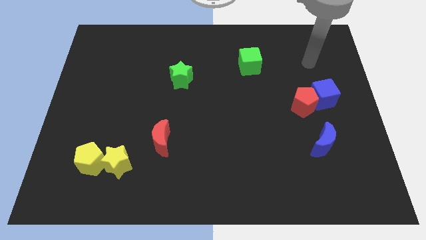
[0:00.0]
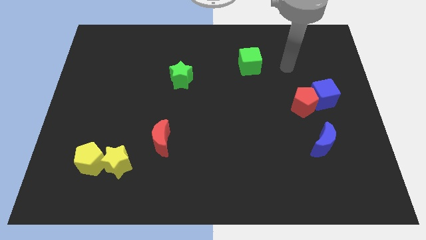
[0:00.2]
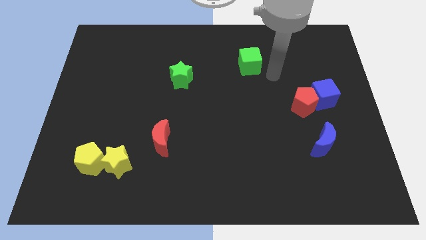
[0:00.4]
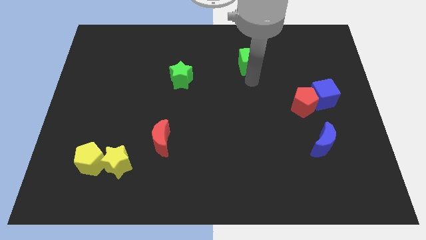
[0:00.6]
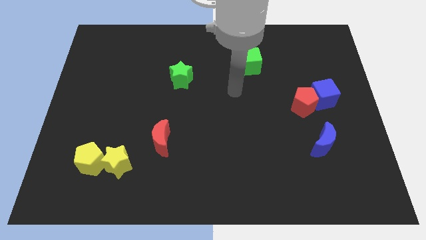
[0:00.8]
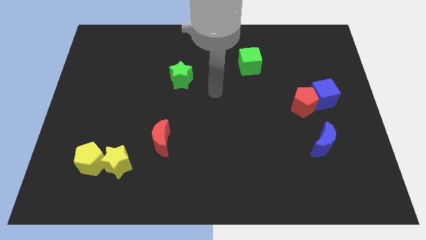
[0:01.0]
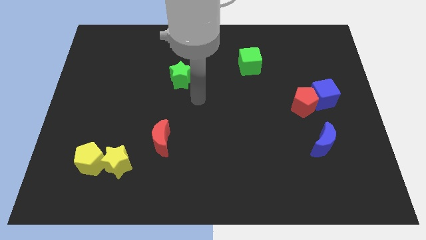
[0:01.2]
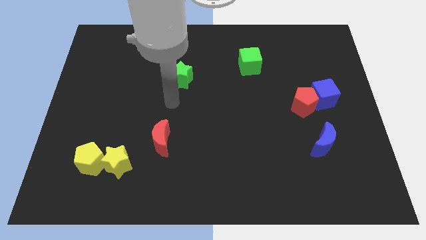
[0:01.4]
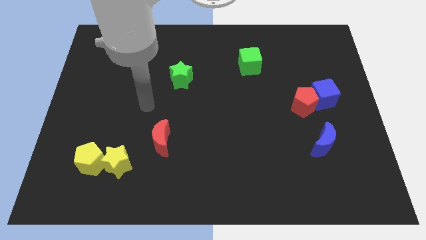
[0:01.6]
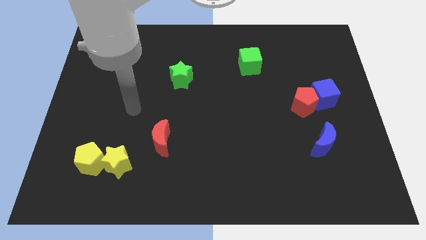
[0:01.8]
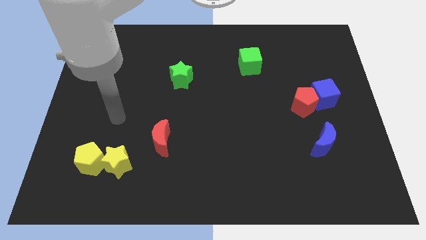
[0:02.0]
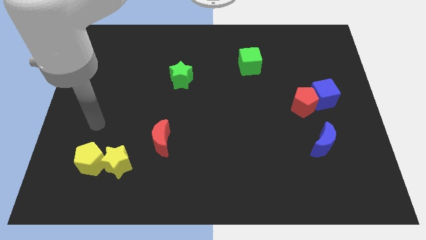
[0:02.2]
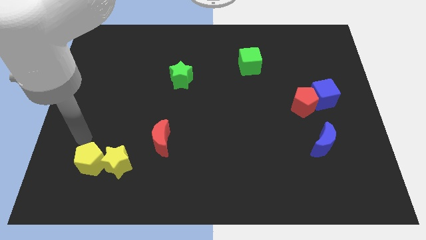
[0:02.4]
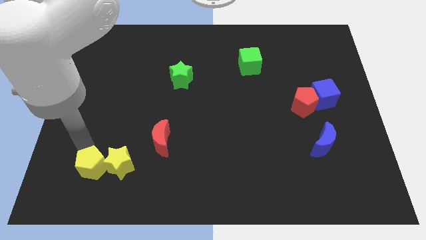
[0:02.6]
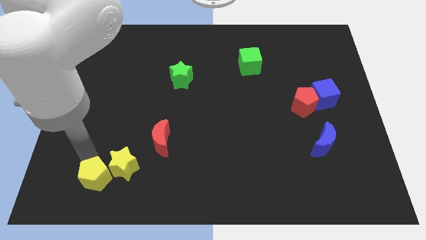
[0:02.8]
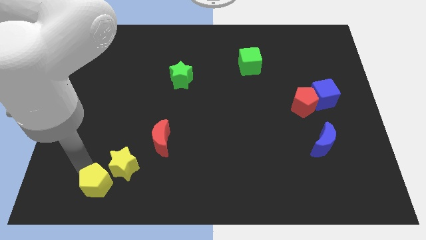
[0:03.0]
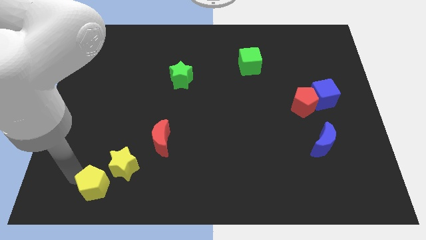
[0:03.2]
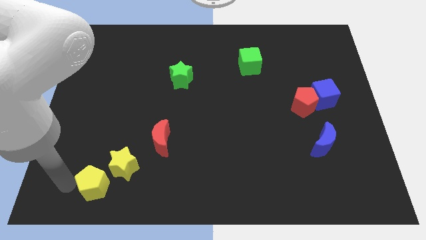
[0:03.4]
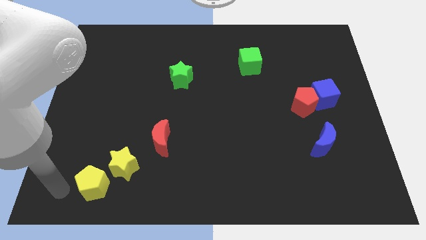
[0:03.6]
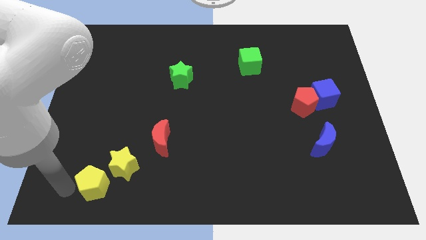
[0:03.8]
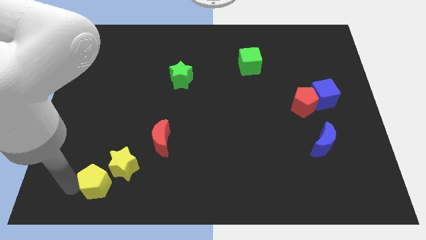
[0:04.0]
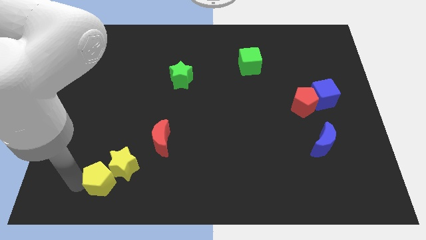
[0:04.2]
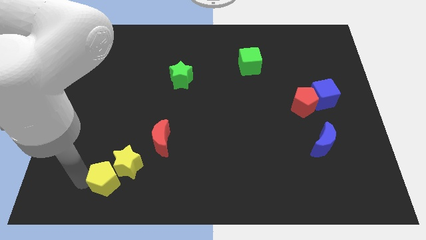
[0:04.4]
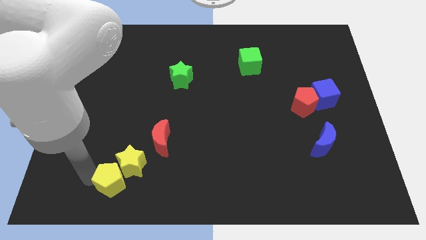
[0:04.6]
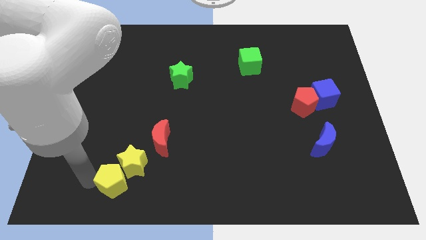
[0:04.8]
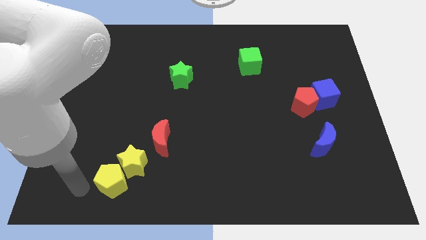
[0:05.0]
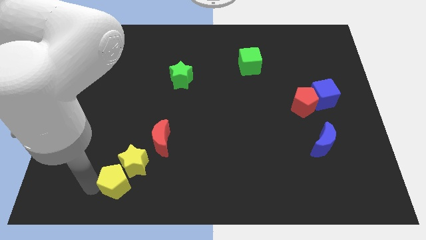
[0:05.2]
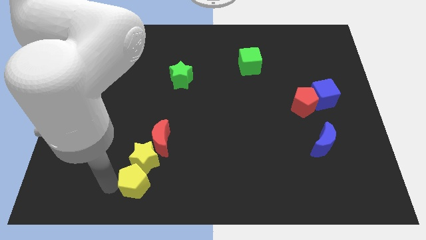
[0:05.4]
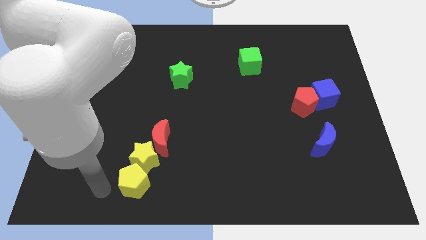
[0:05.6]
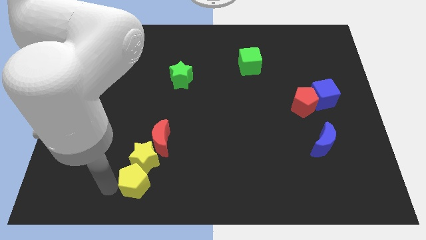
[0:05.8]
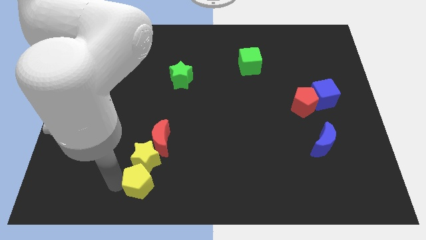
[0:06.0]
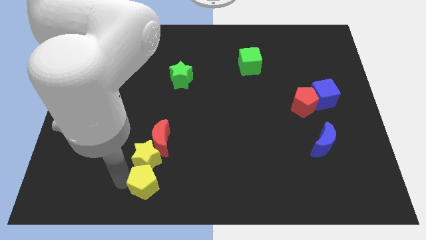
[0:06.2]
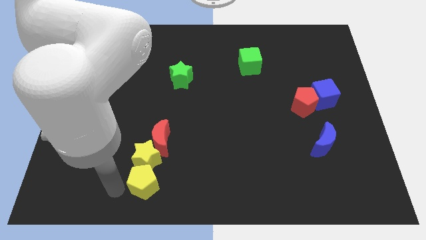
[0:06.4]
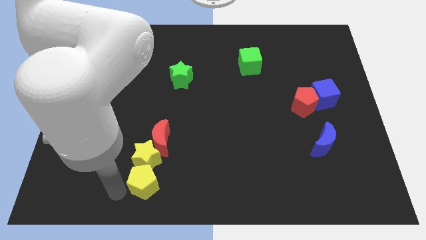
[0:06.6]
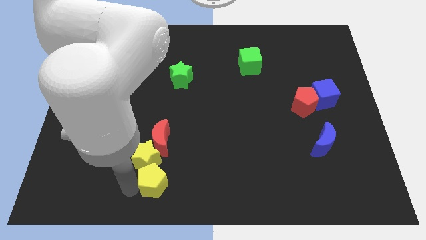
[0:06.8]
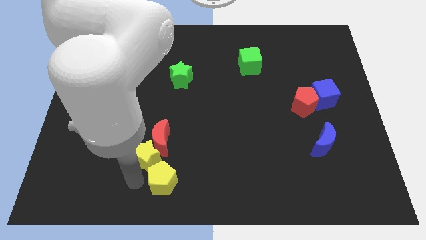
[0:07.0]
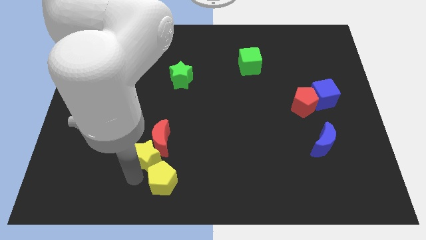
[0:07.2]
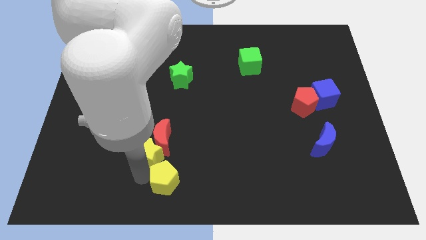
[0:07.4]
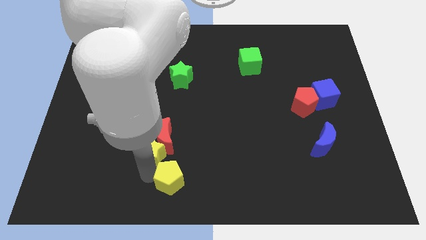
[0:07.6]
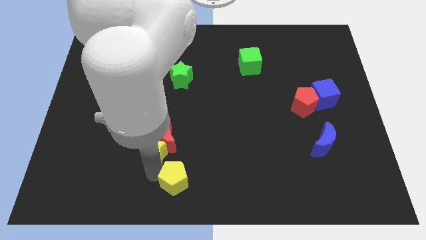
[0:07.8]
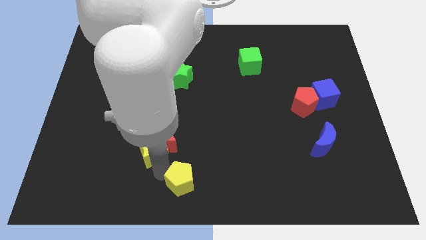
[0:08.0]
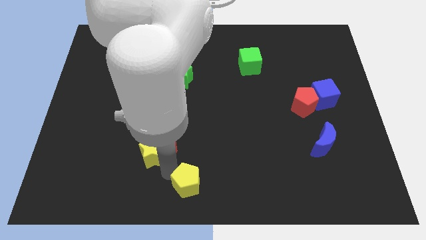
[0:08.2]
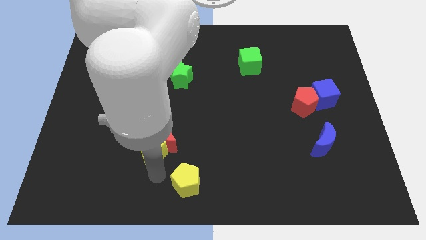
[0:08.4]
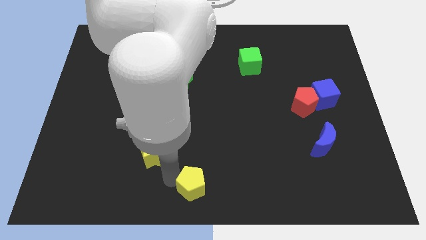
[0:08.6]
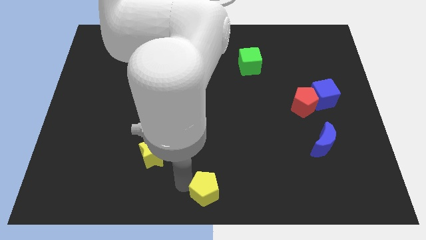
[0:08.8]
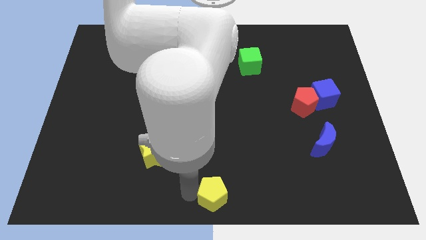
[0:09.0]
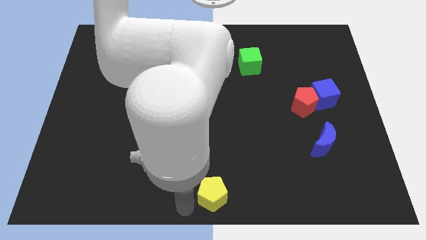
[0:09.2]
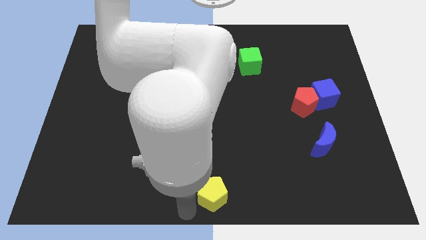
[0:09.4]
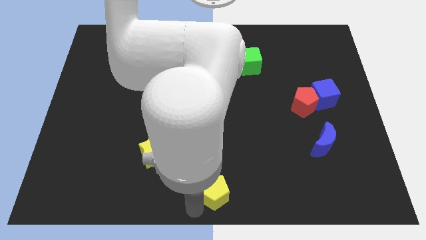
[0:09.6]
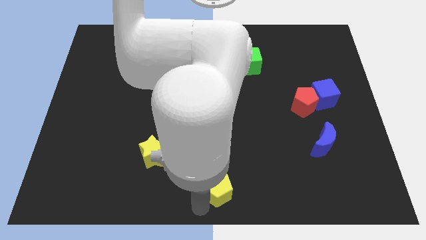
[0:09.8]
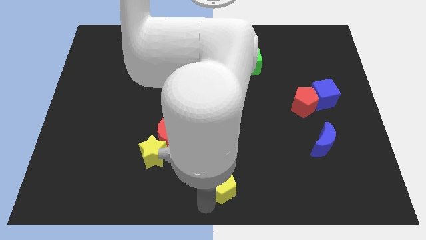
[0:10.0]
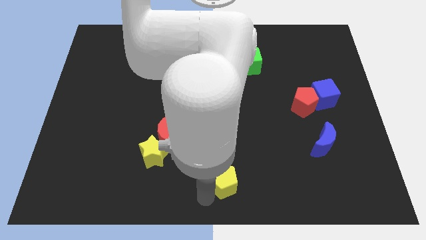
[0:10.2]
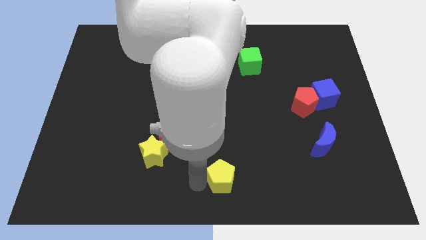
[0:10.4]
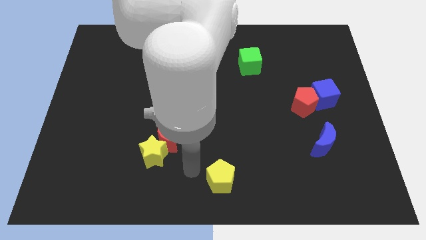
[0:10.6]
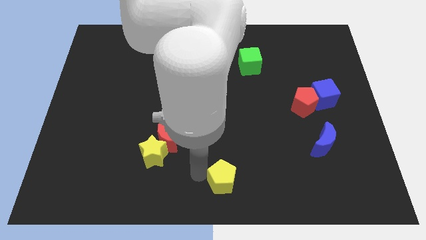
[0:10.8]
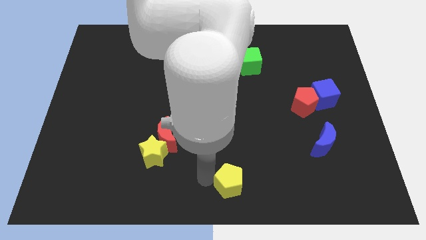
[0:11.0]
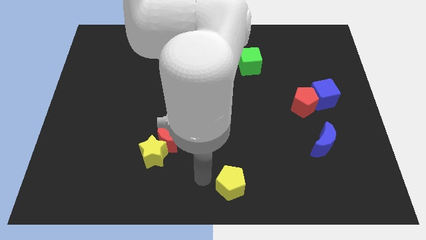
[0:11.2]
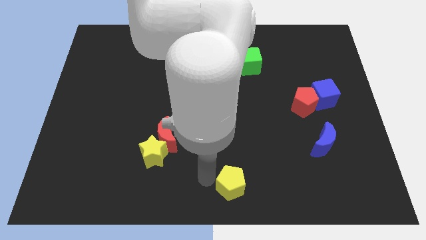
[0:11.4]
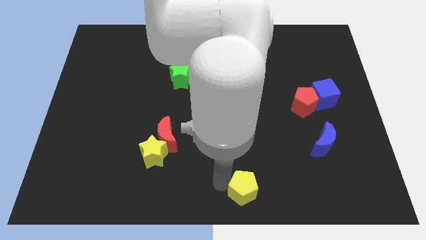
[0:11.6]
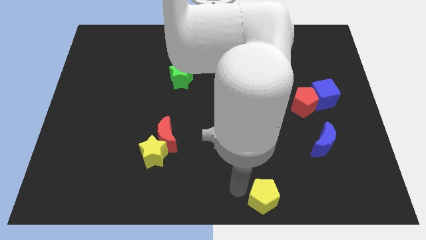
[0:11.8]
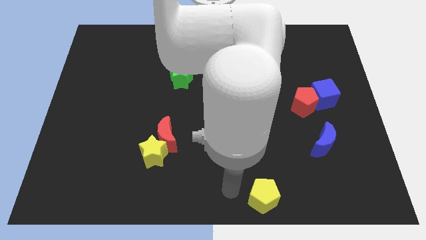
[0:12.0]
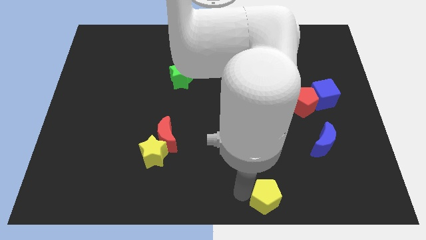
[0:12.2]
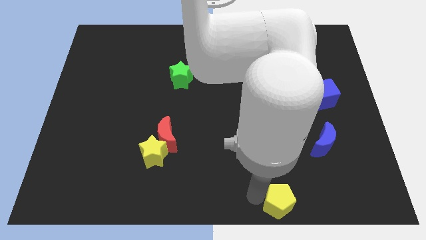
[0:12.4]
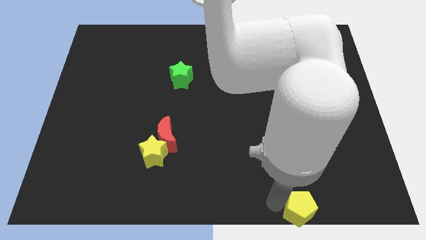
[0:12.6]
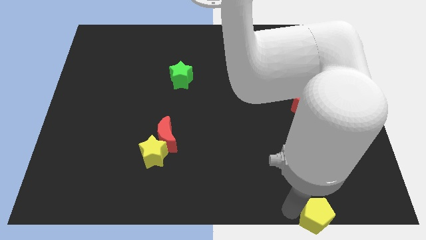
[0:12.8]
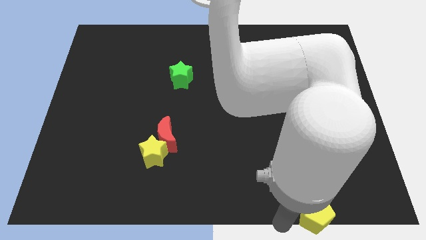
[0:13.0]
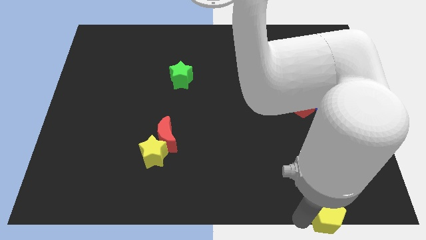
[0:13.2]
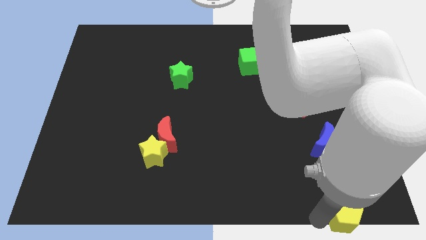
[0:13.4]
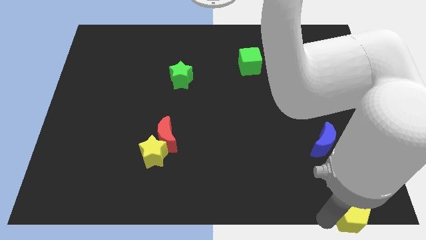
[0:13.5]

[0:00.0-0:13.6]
move the yellow pentagon to the bottom right corner

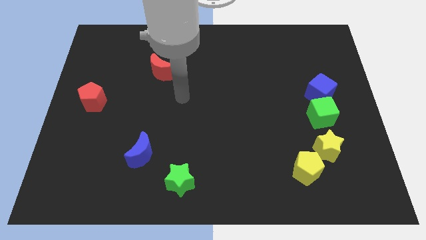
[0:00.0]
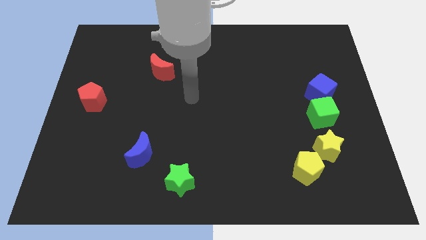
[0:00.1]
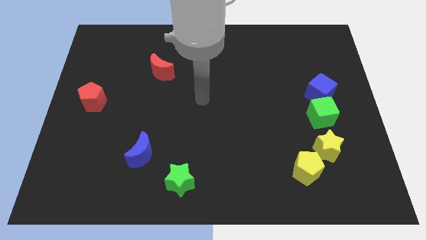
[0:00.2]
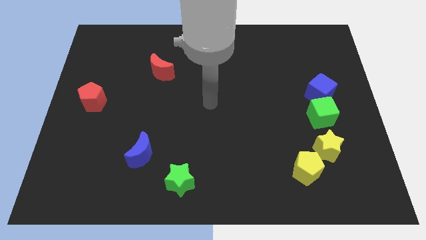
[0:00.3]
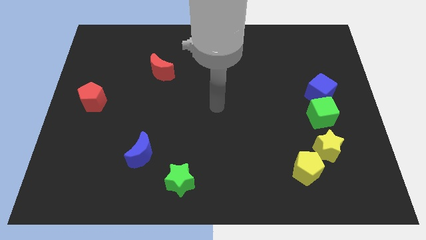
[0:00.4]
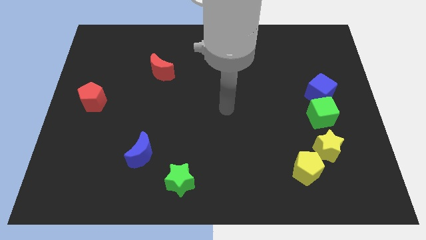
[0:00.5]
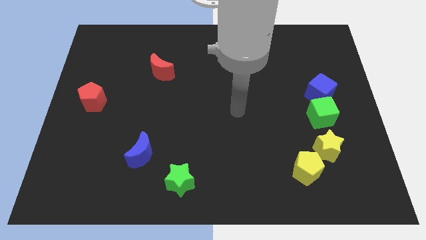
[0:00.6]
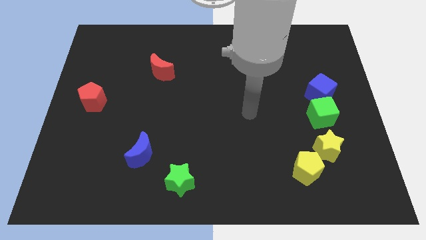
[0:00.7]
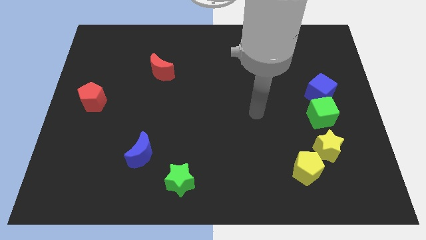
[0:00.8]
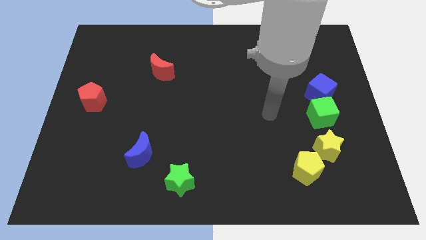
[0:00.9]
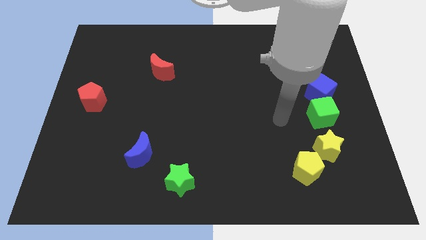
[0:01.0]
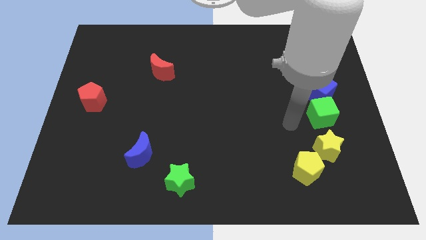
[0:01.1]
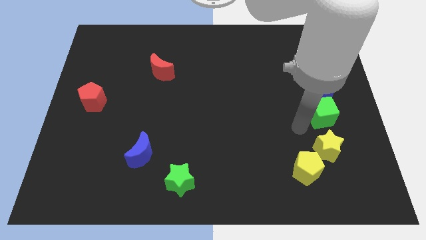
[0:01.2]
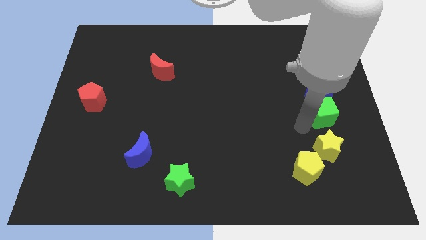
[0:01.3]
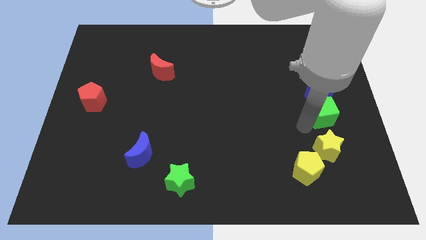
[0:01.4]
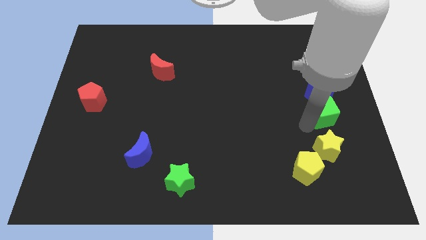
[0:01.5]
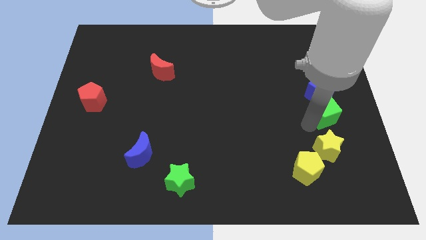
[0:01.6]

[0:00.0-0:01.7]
put the green cube to the right side of the board
